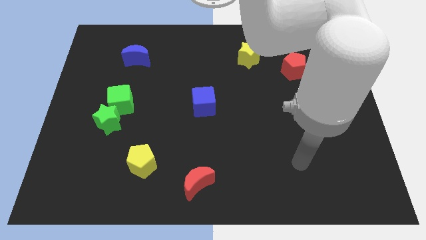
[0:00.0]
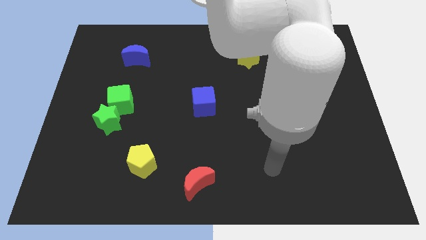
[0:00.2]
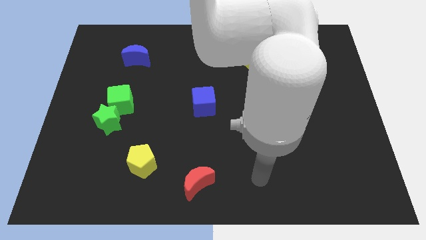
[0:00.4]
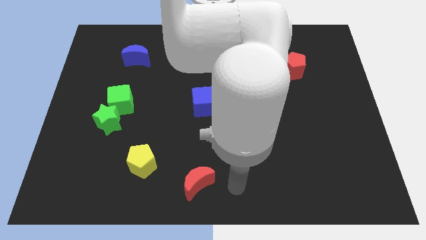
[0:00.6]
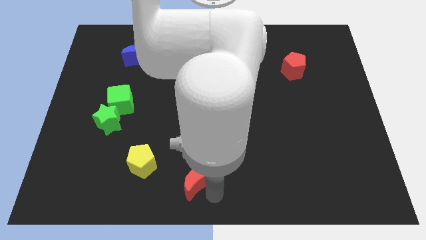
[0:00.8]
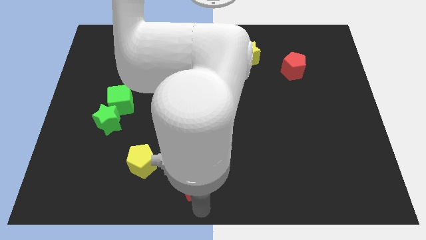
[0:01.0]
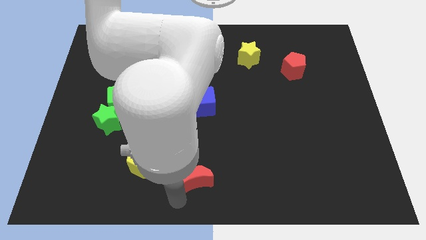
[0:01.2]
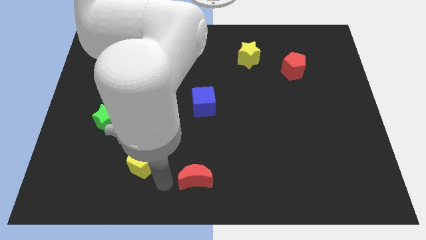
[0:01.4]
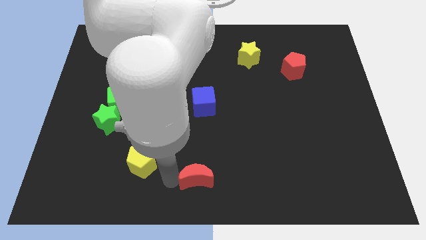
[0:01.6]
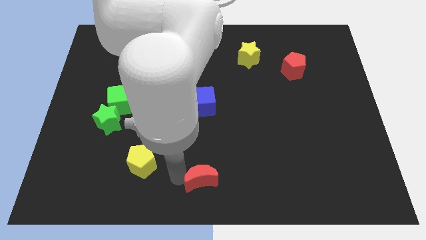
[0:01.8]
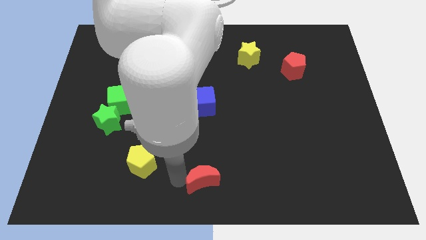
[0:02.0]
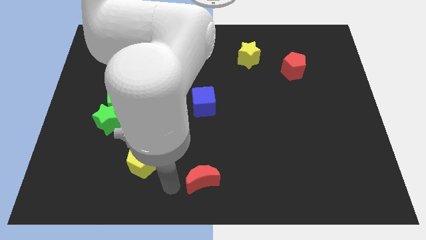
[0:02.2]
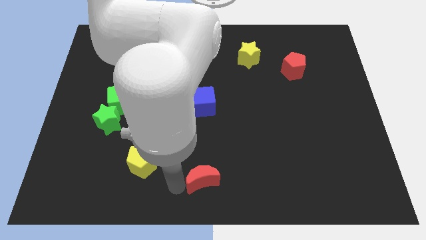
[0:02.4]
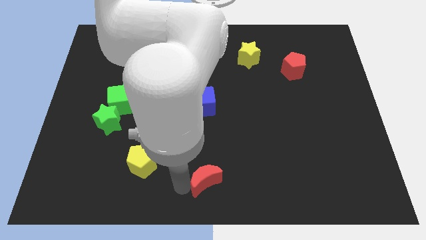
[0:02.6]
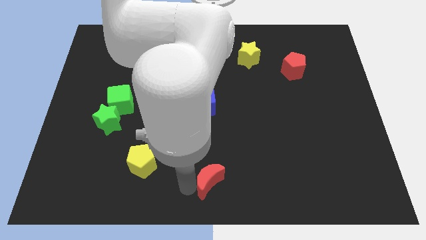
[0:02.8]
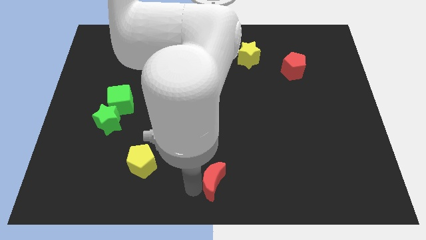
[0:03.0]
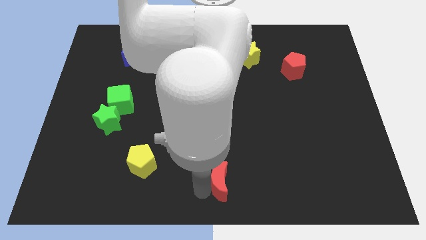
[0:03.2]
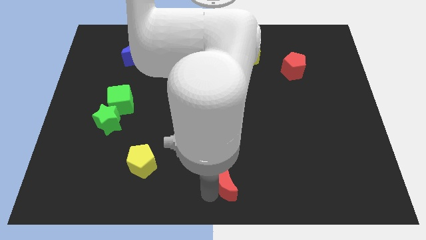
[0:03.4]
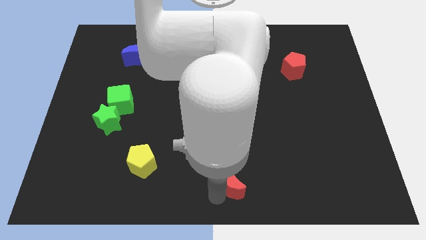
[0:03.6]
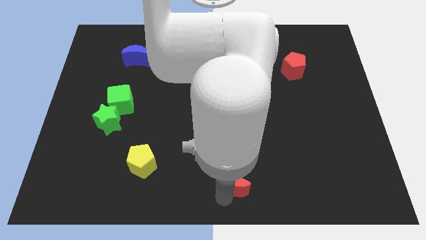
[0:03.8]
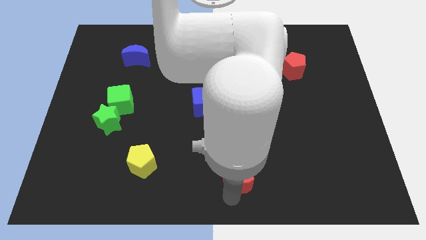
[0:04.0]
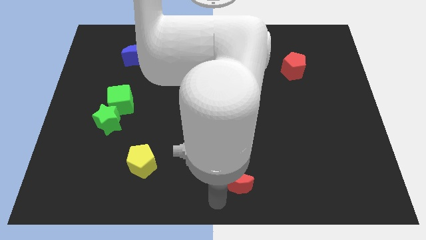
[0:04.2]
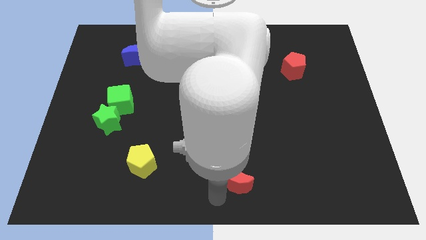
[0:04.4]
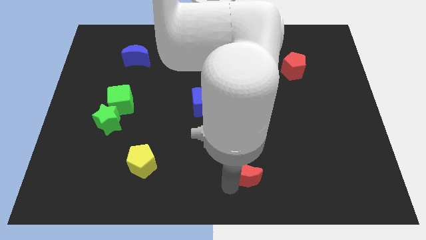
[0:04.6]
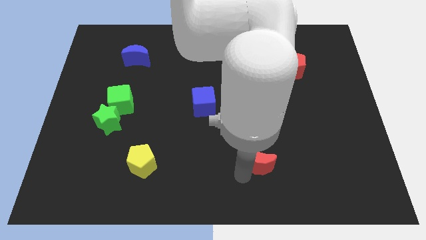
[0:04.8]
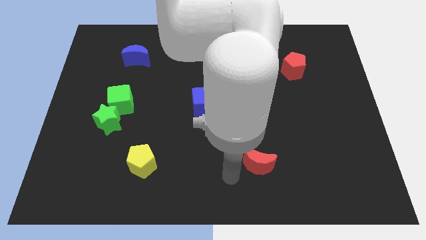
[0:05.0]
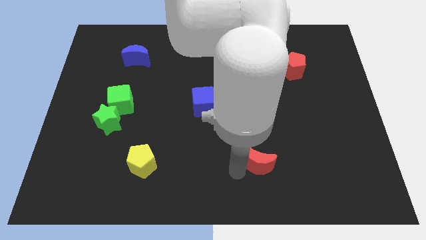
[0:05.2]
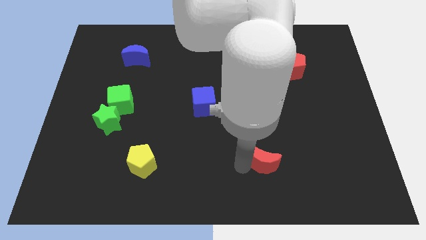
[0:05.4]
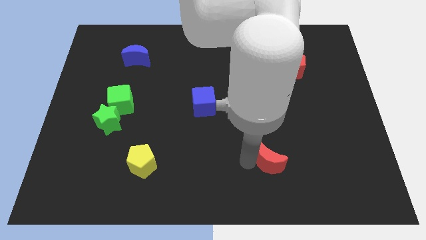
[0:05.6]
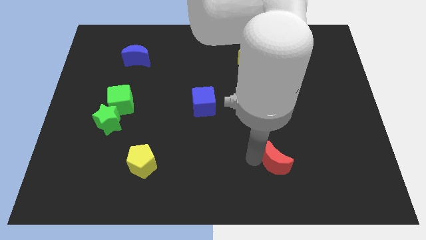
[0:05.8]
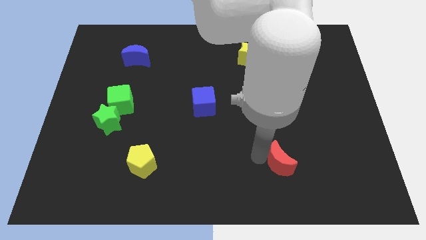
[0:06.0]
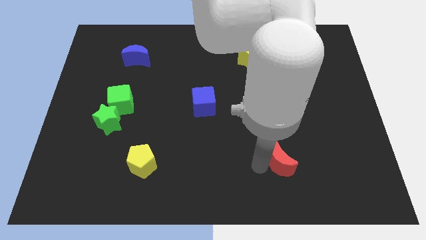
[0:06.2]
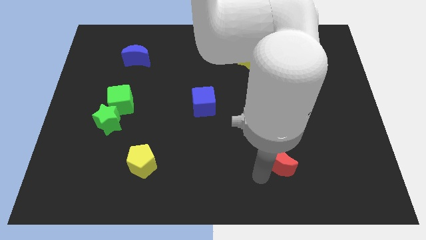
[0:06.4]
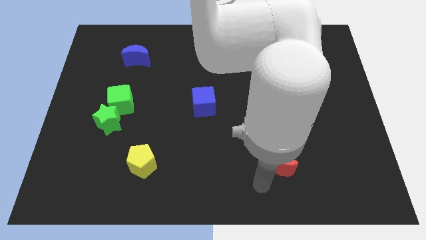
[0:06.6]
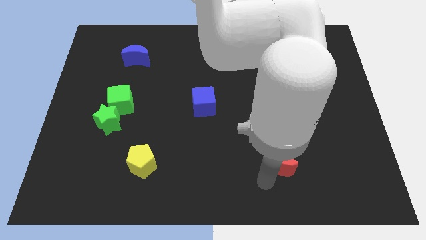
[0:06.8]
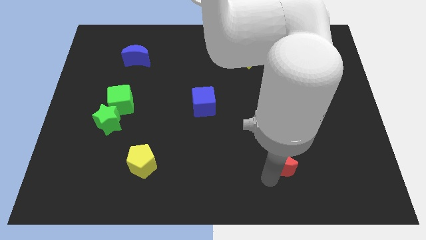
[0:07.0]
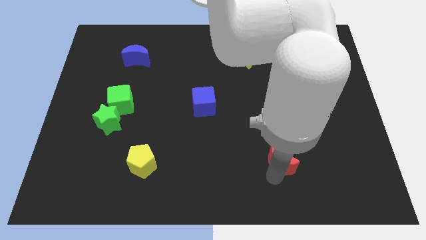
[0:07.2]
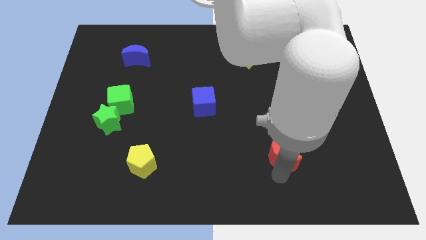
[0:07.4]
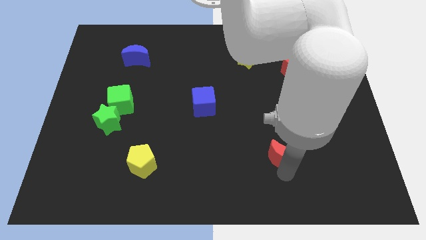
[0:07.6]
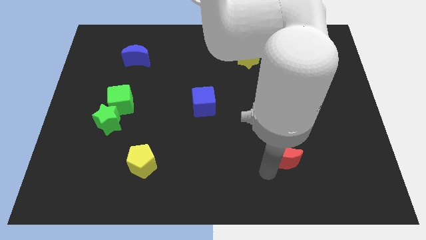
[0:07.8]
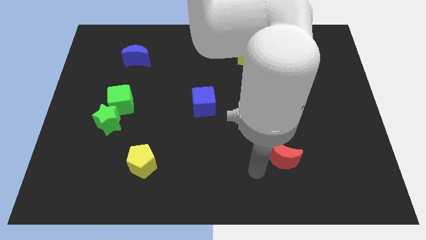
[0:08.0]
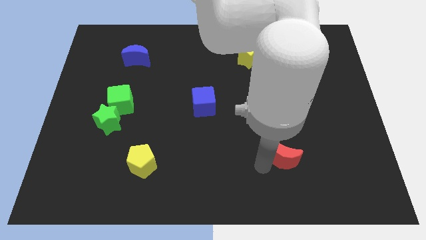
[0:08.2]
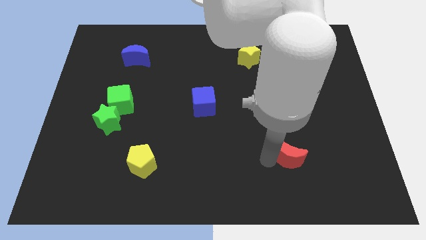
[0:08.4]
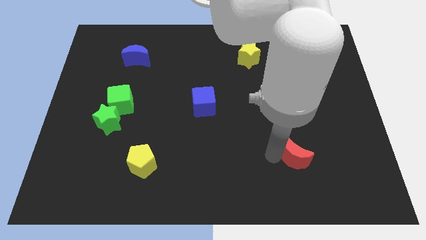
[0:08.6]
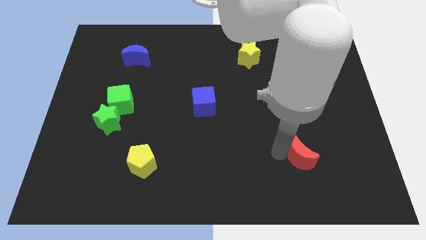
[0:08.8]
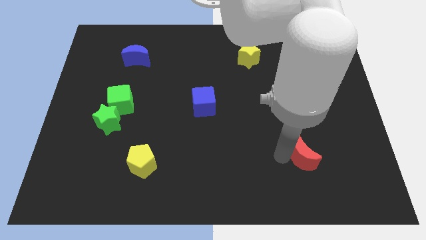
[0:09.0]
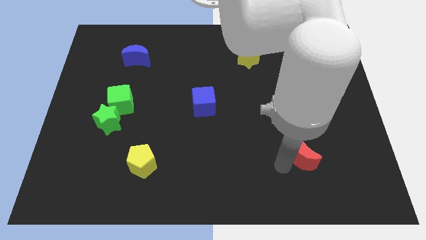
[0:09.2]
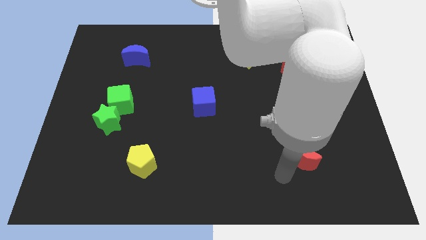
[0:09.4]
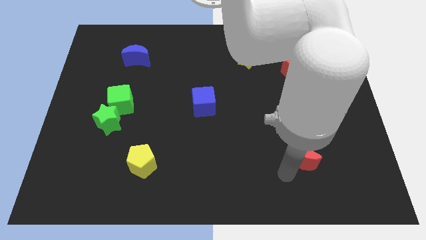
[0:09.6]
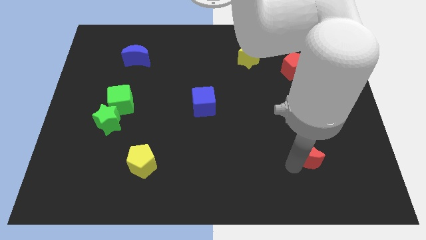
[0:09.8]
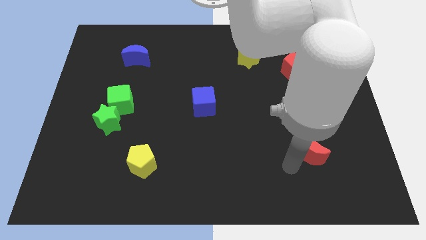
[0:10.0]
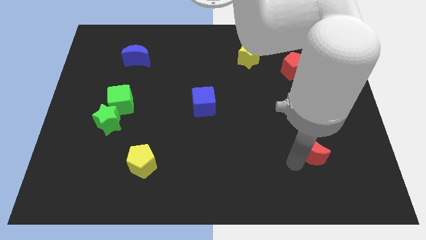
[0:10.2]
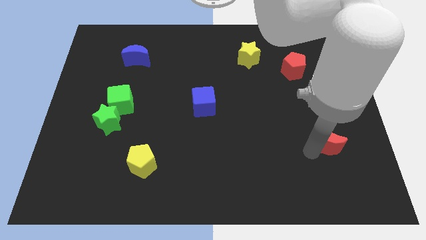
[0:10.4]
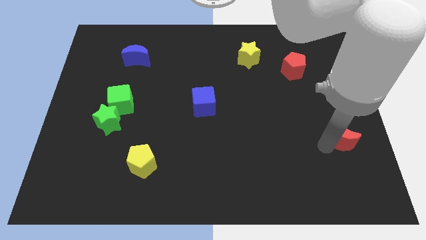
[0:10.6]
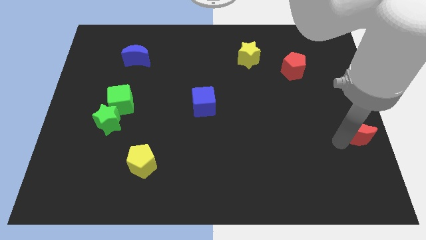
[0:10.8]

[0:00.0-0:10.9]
push the red moon to the right side

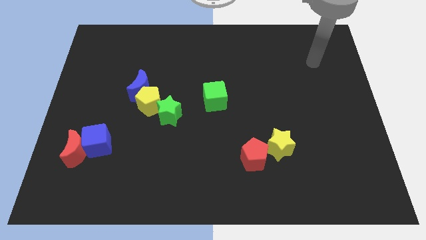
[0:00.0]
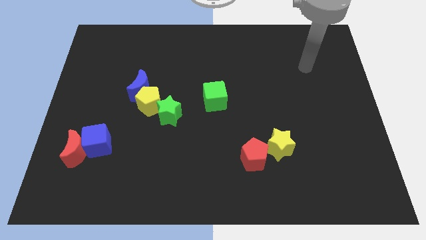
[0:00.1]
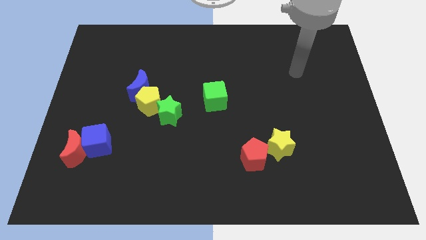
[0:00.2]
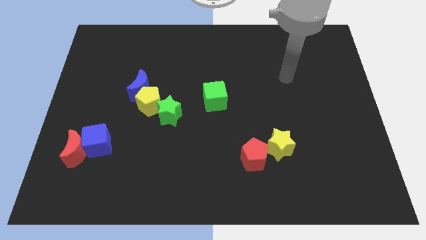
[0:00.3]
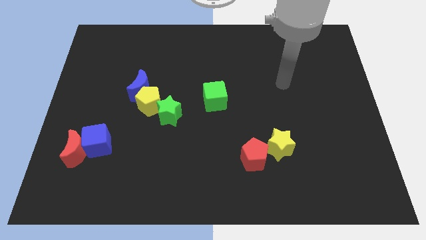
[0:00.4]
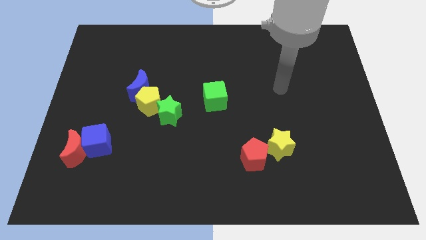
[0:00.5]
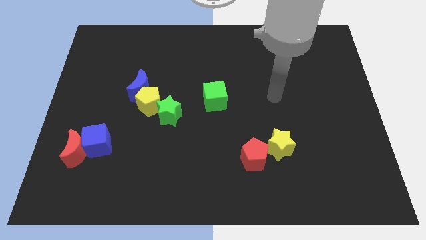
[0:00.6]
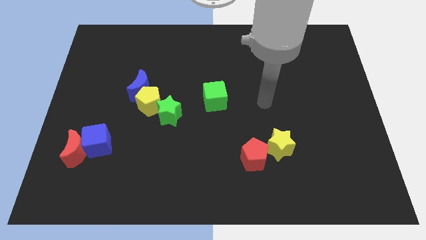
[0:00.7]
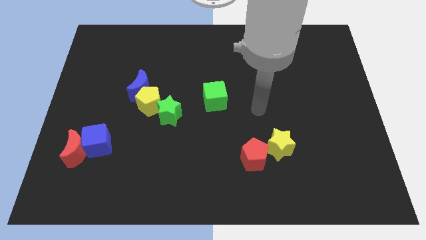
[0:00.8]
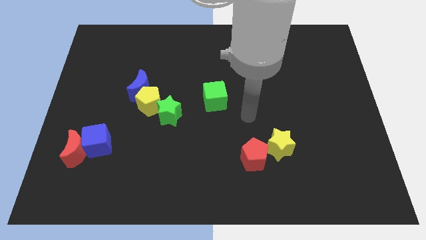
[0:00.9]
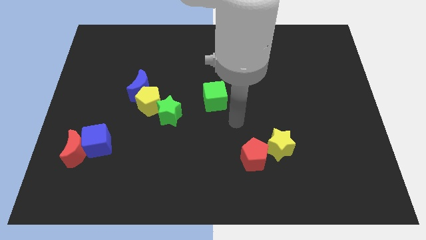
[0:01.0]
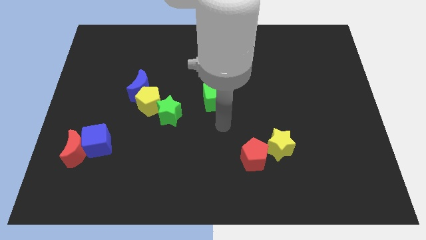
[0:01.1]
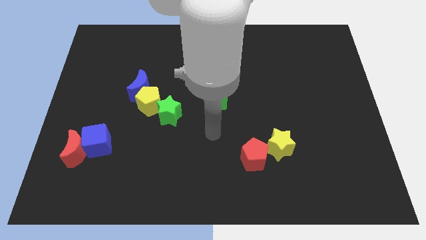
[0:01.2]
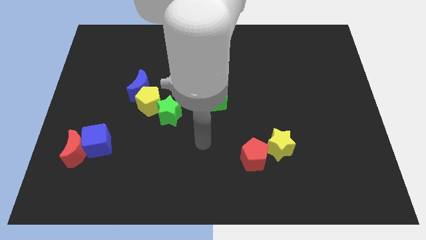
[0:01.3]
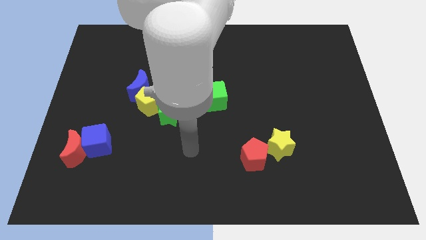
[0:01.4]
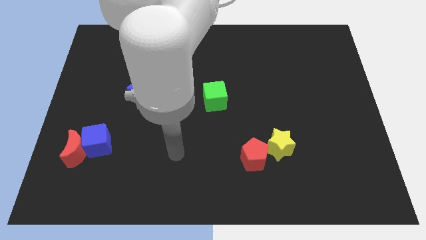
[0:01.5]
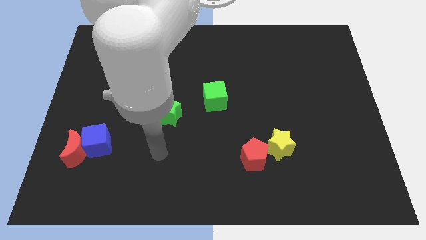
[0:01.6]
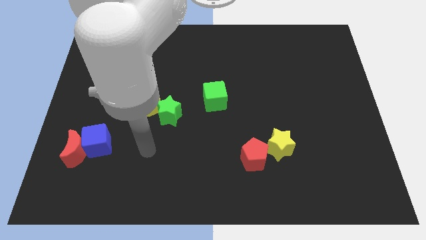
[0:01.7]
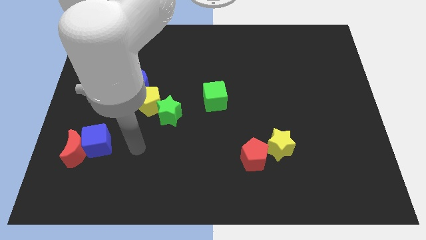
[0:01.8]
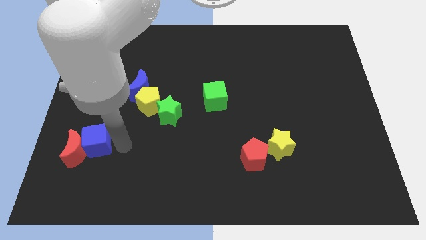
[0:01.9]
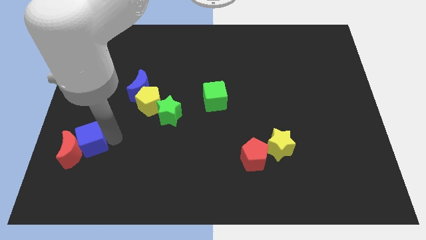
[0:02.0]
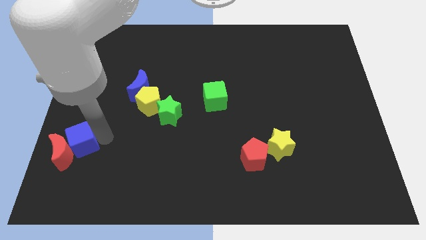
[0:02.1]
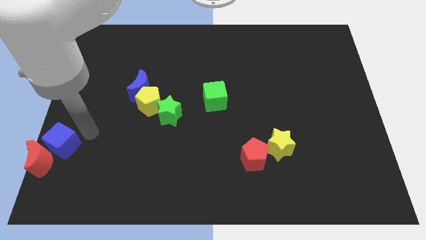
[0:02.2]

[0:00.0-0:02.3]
move the red moon to the bottom left
